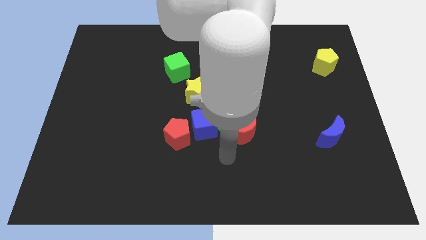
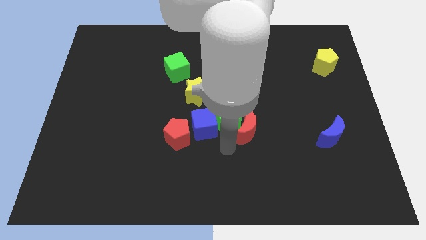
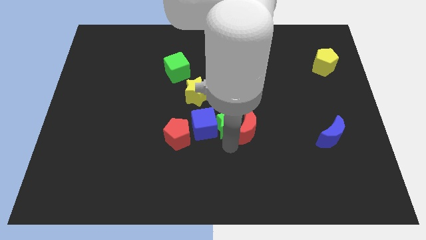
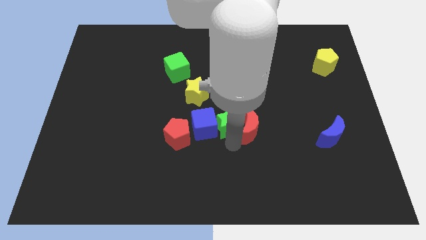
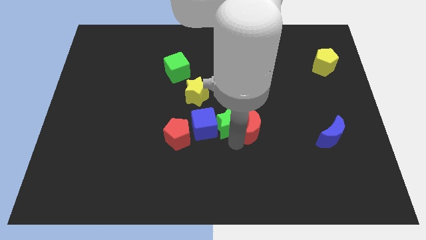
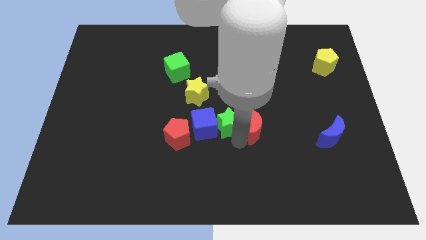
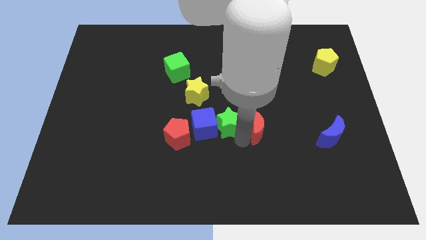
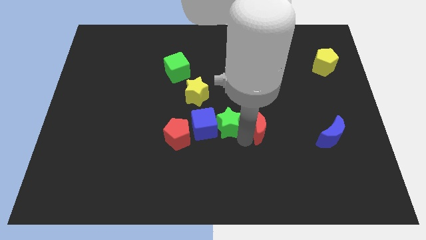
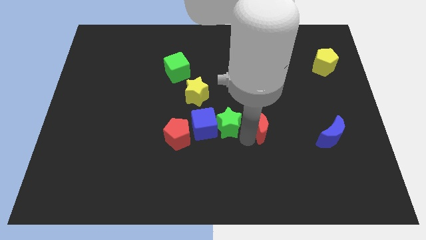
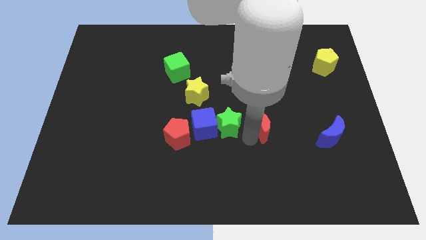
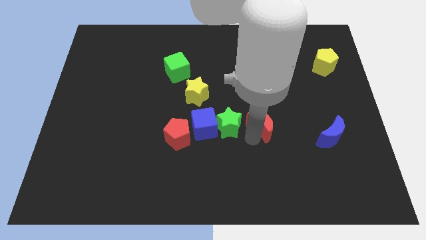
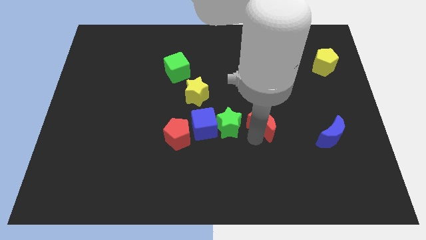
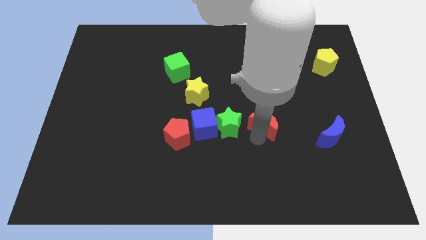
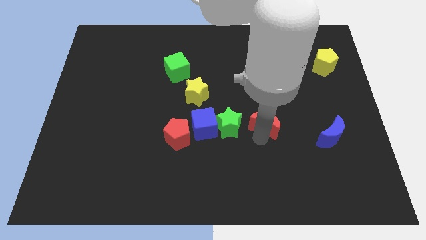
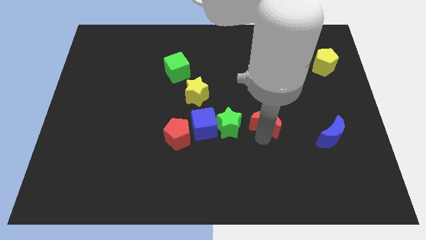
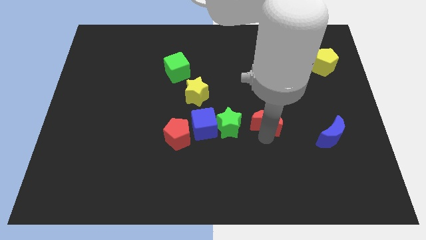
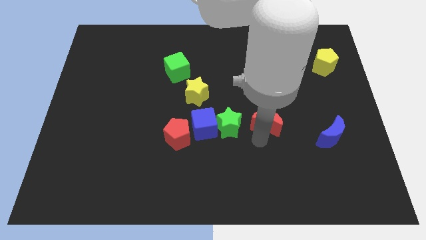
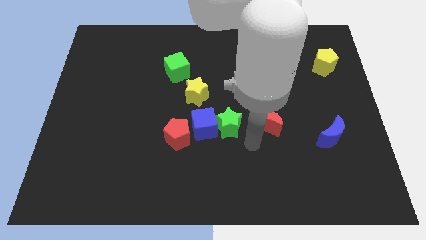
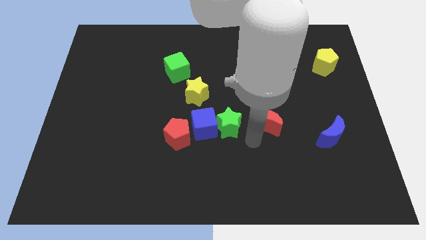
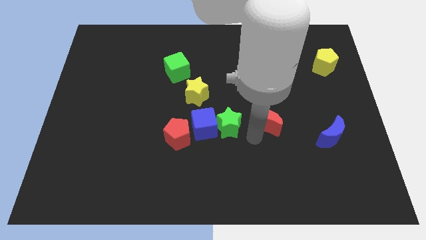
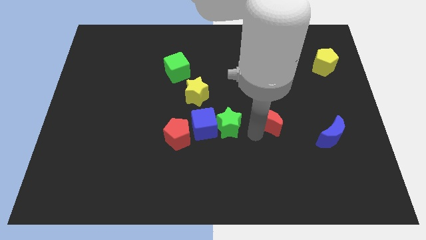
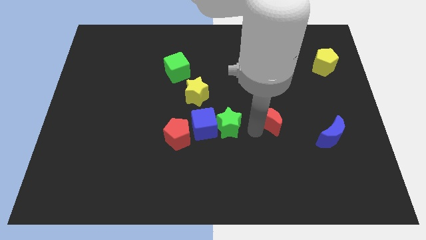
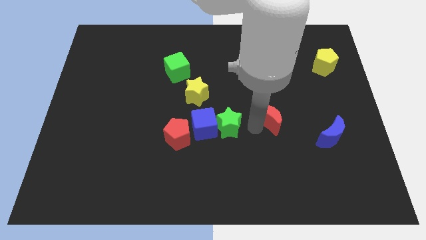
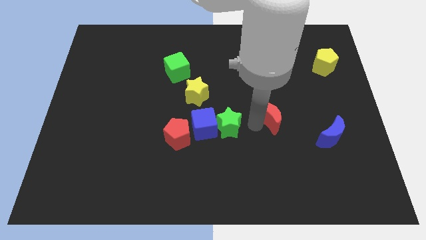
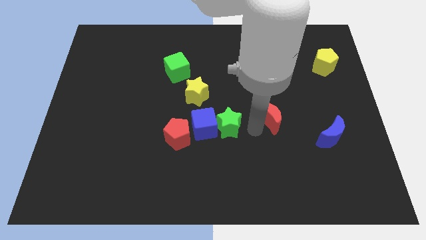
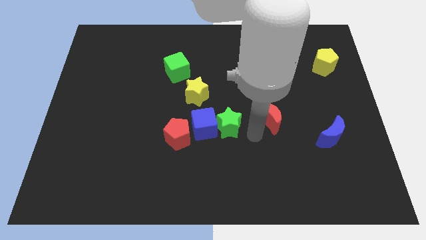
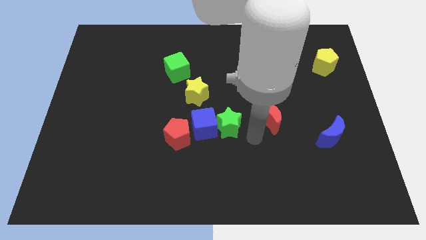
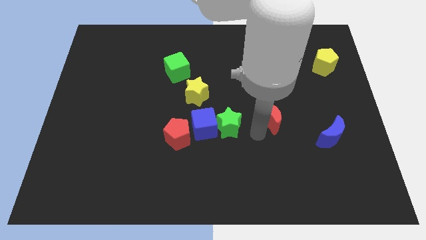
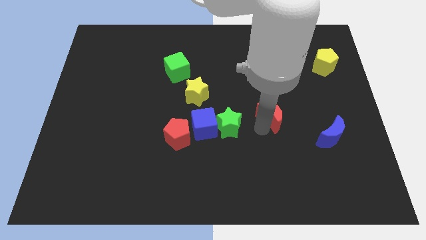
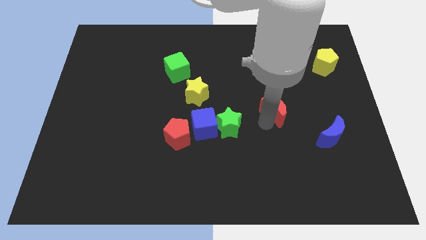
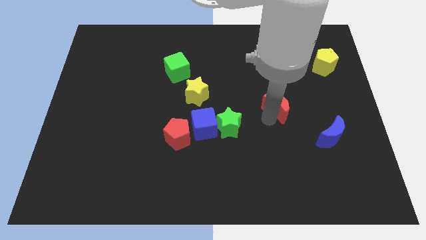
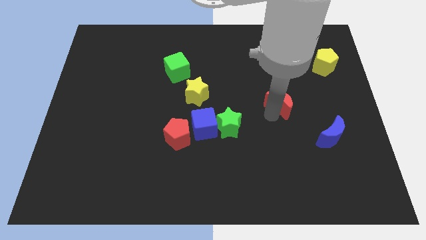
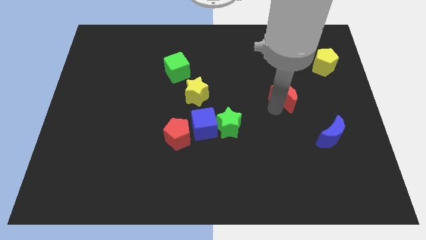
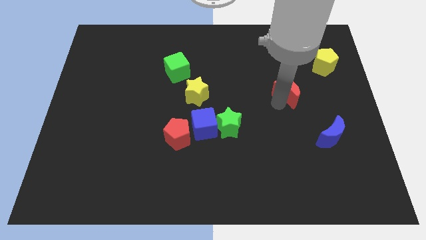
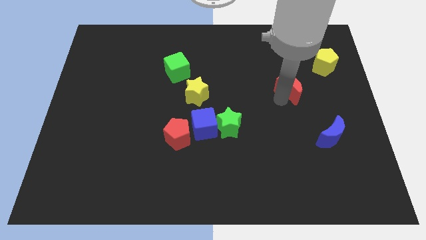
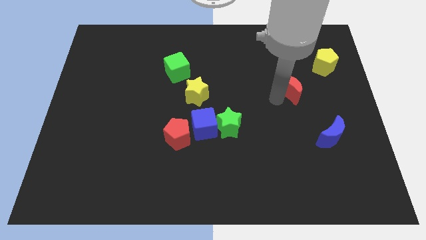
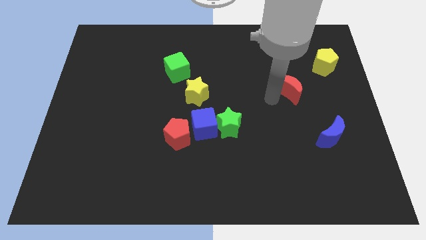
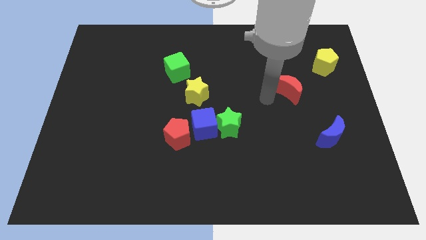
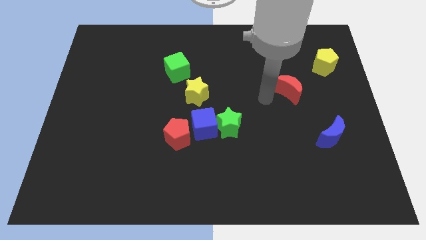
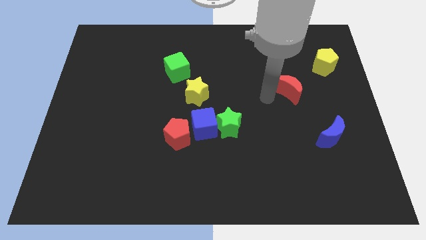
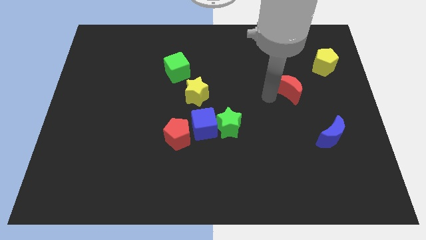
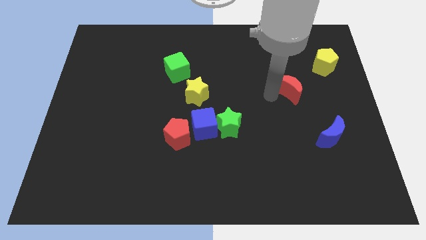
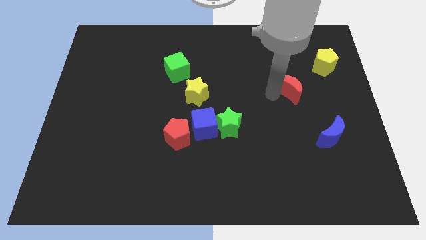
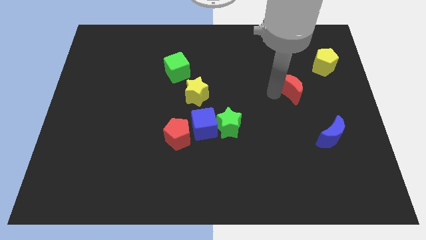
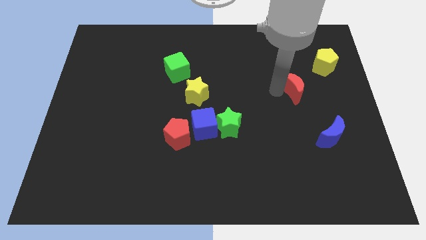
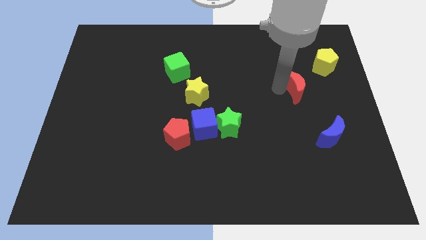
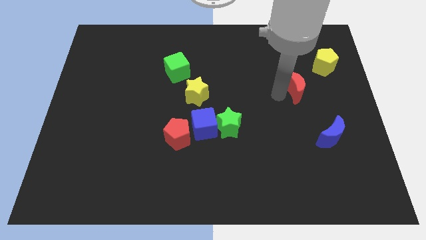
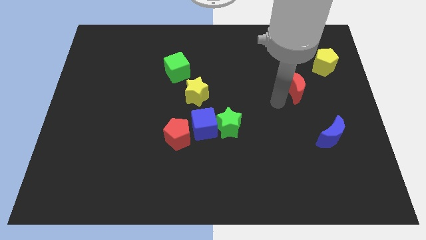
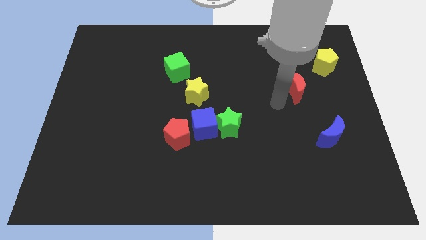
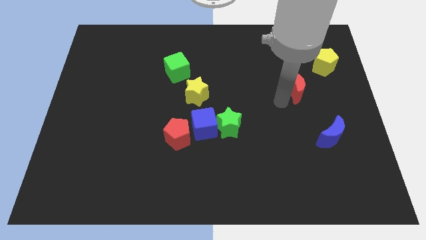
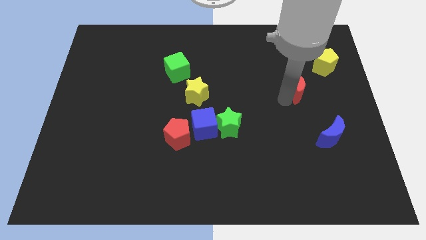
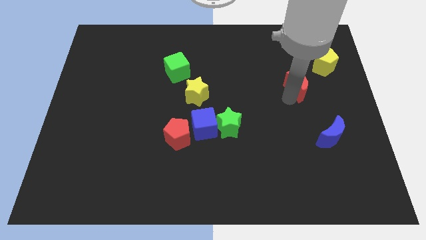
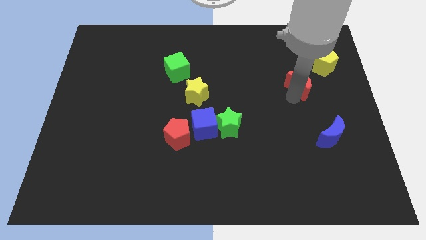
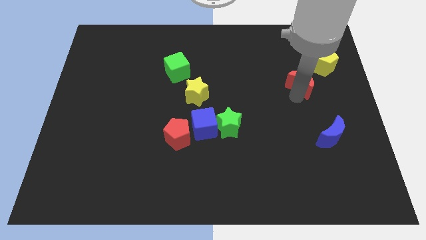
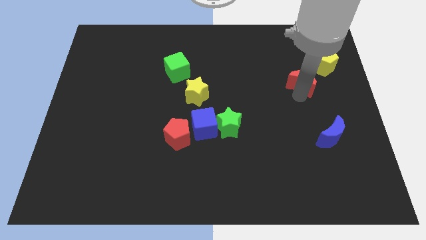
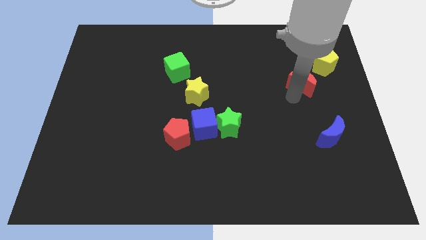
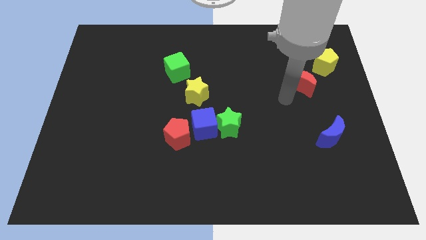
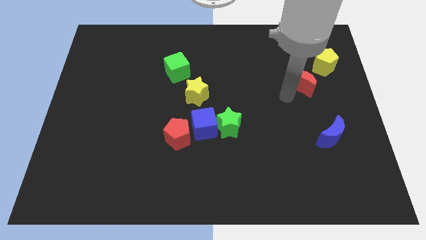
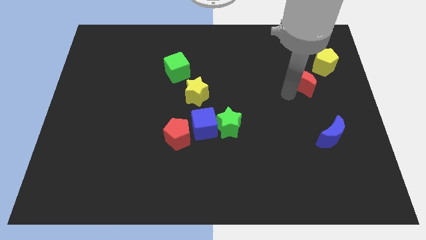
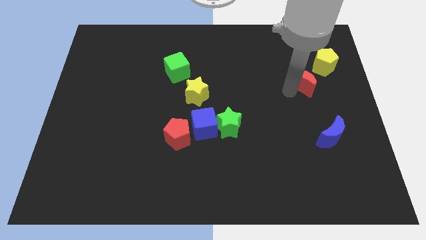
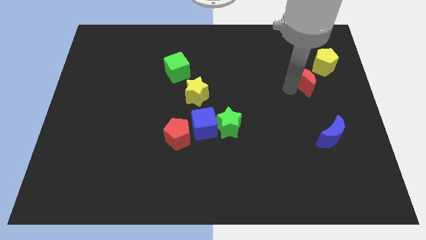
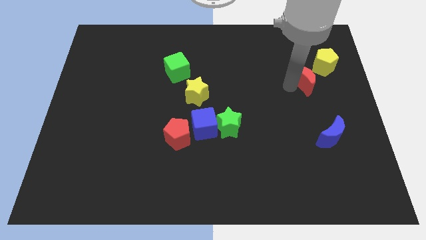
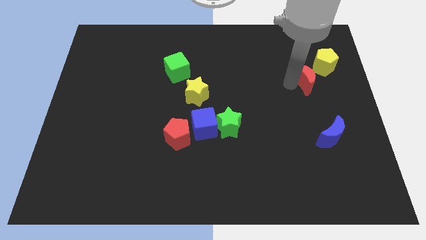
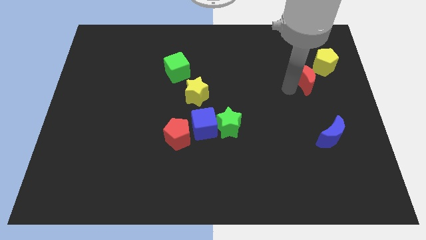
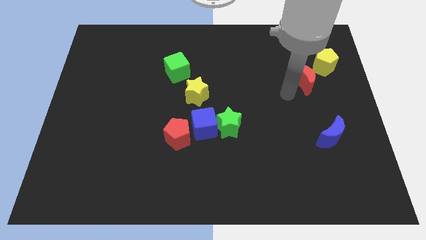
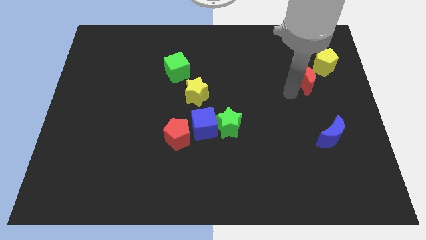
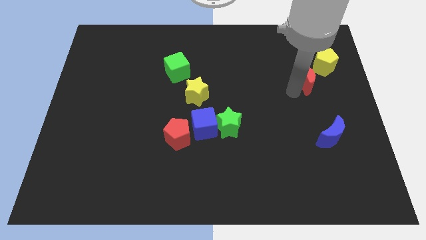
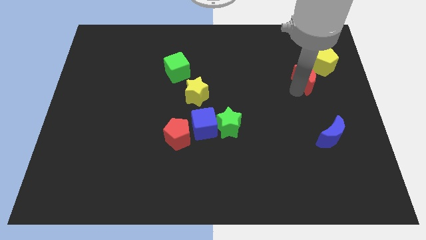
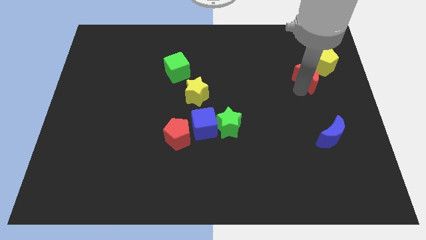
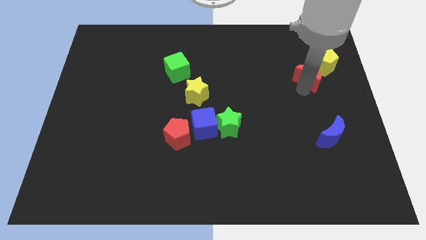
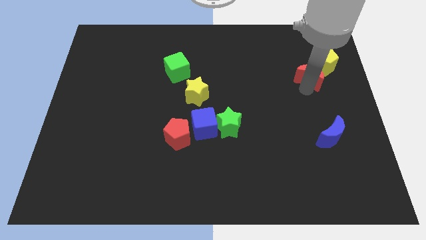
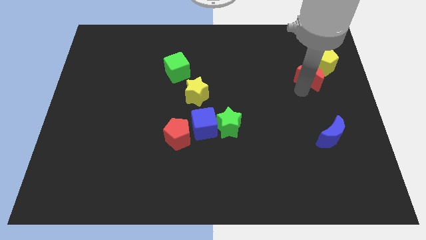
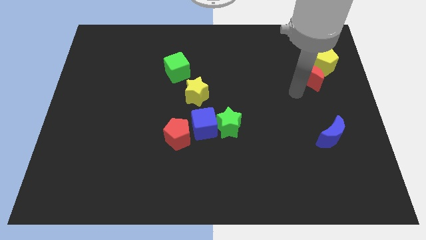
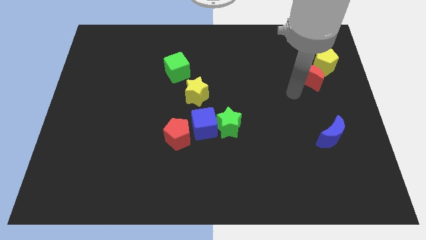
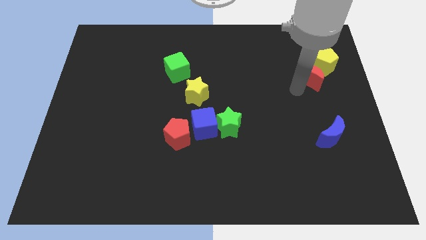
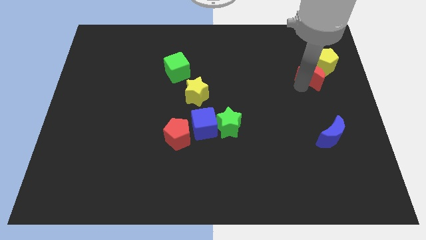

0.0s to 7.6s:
put the red moon next to the yellow pentagon
